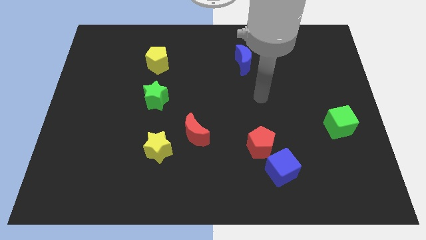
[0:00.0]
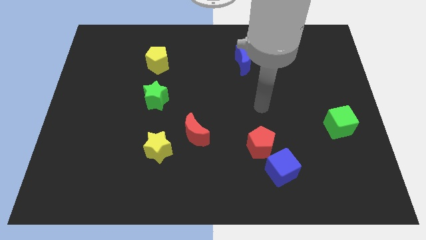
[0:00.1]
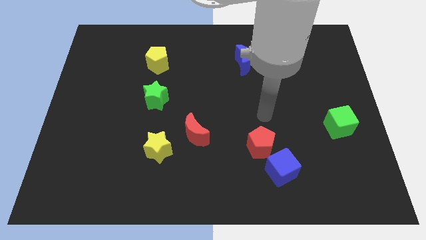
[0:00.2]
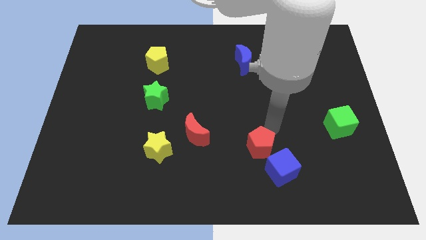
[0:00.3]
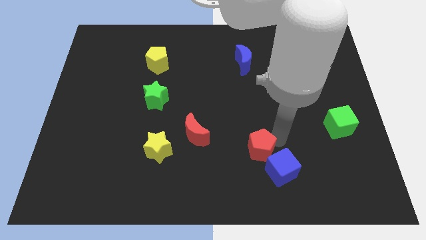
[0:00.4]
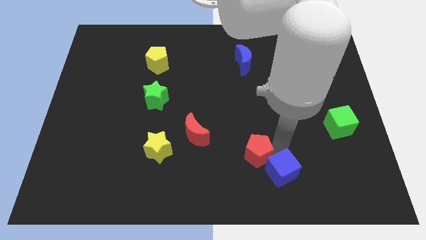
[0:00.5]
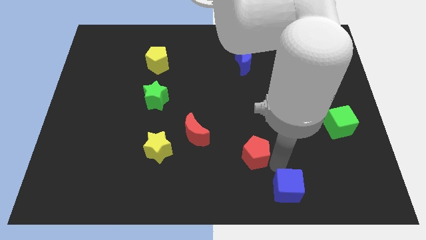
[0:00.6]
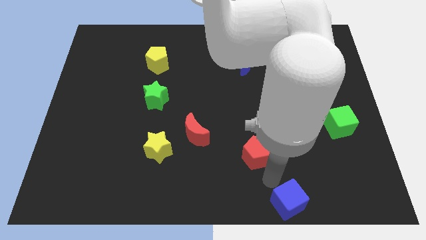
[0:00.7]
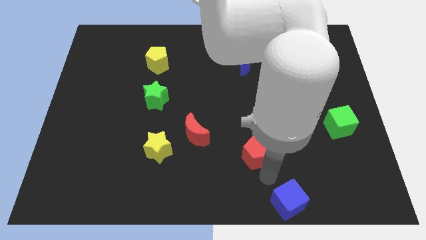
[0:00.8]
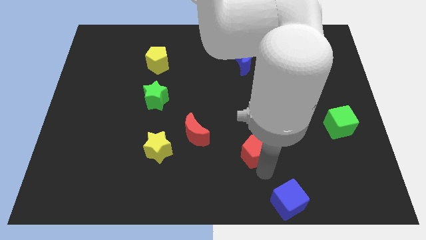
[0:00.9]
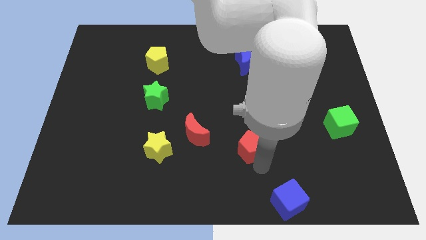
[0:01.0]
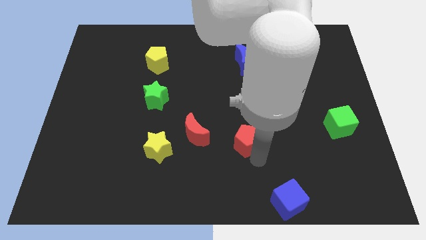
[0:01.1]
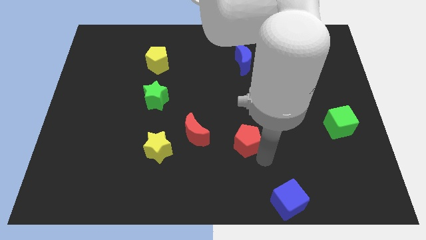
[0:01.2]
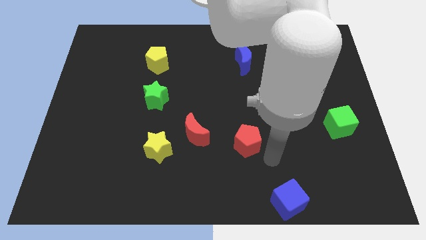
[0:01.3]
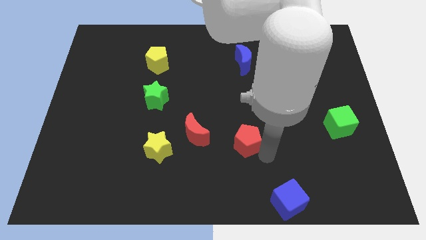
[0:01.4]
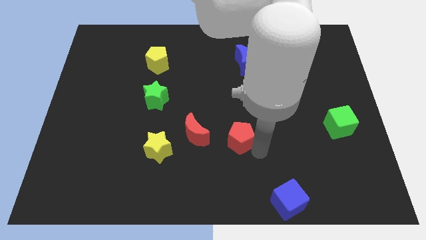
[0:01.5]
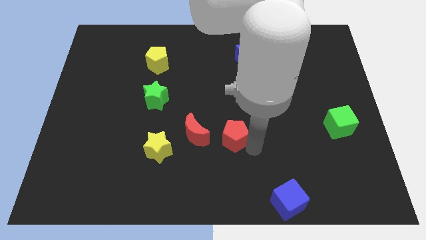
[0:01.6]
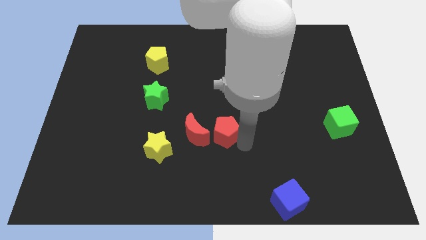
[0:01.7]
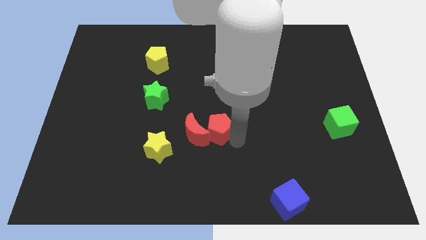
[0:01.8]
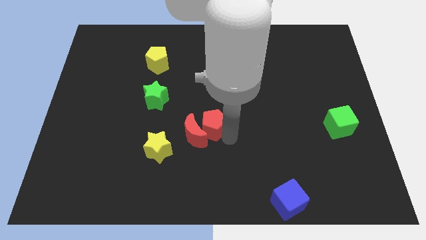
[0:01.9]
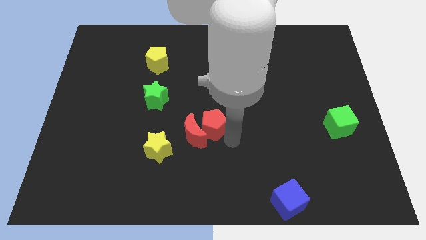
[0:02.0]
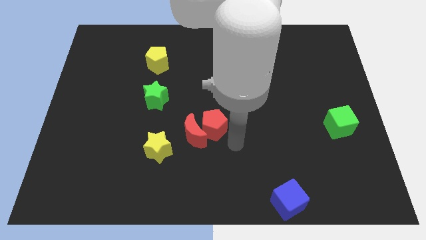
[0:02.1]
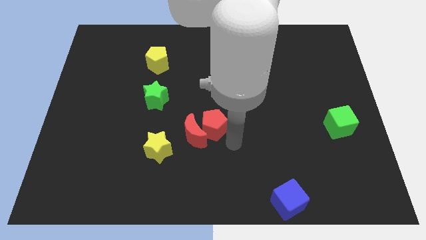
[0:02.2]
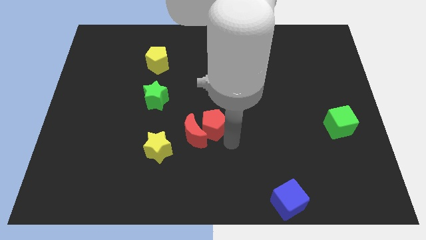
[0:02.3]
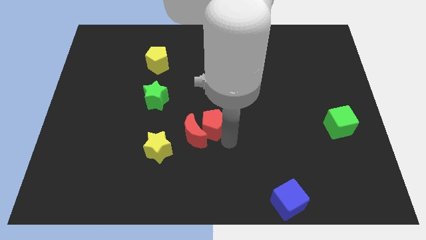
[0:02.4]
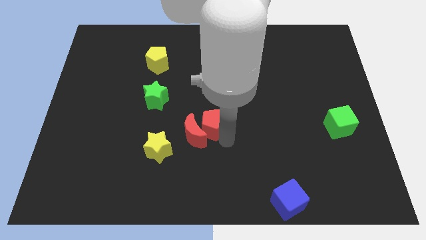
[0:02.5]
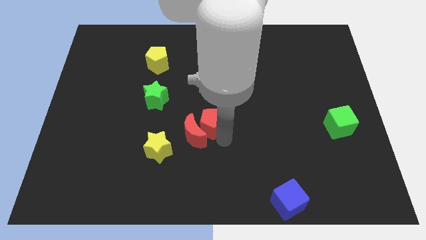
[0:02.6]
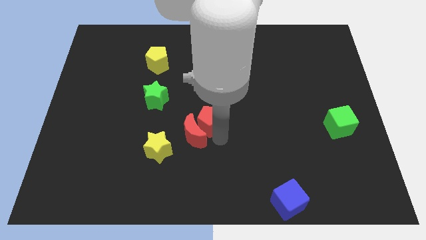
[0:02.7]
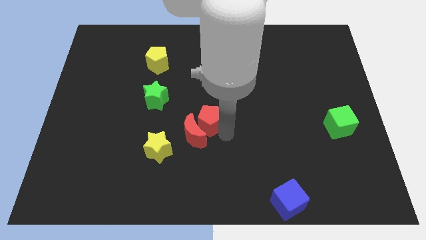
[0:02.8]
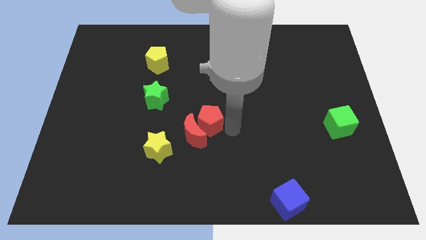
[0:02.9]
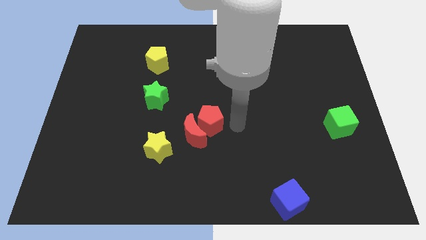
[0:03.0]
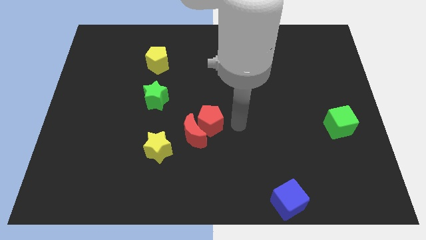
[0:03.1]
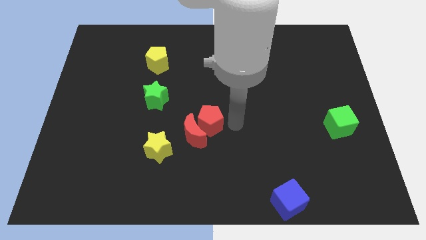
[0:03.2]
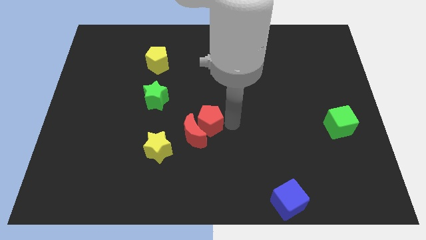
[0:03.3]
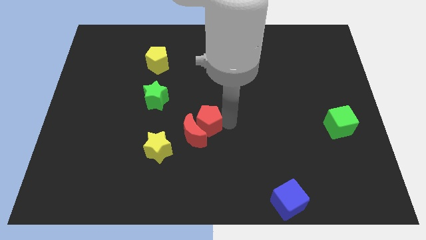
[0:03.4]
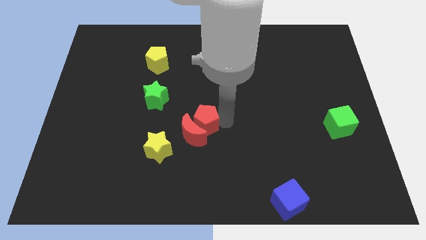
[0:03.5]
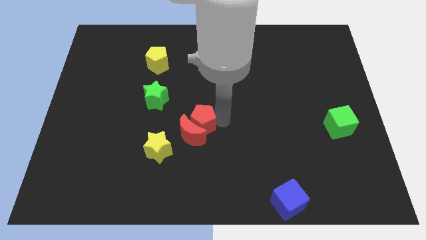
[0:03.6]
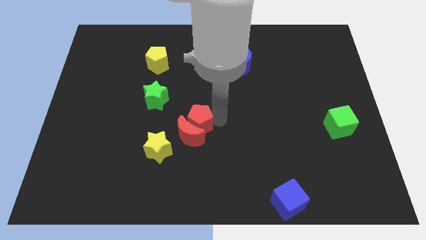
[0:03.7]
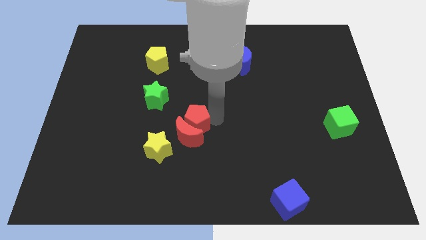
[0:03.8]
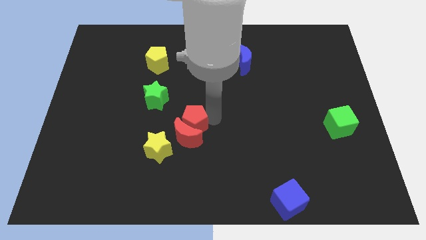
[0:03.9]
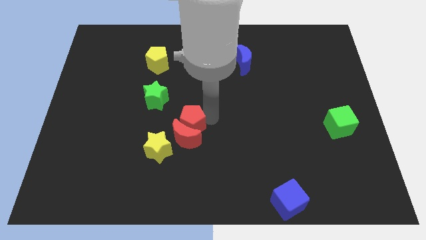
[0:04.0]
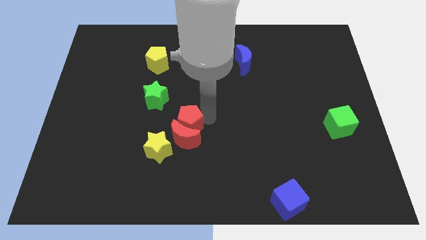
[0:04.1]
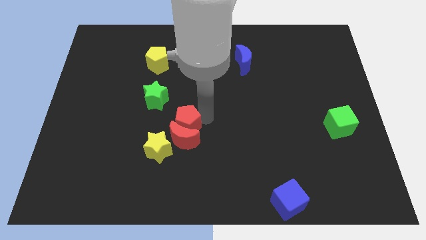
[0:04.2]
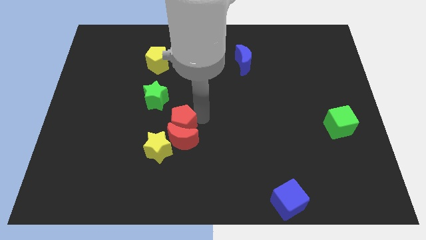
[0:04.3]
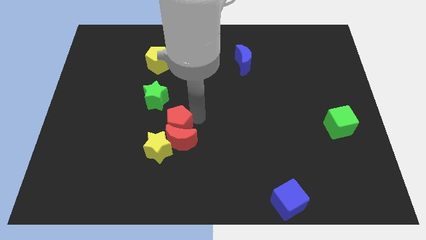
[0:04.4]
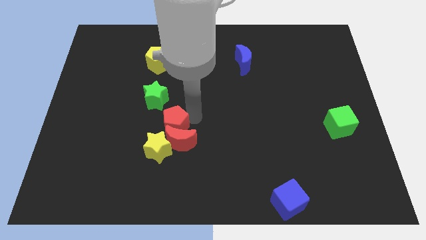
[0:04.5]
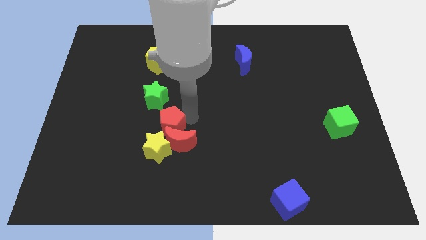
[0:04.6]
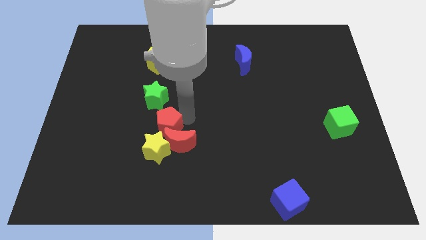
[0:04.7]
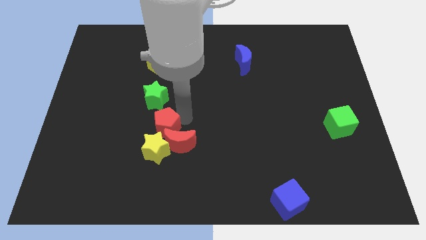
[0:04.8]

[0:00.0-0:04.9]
push the red pentagon left

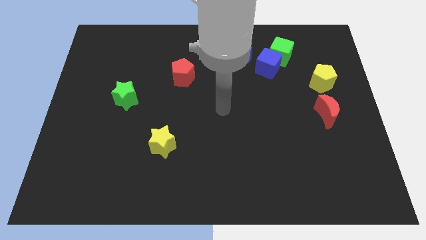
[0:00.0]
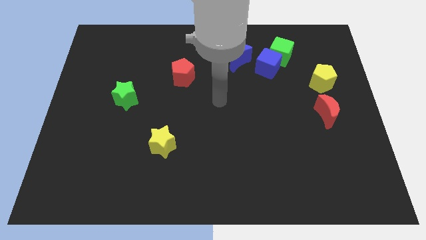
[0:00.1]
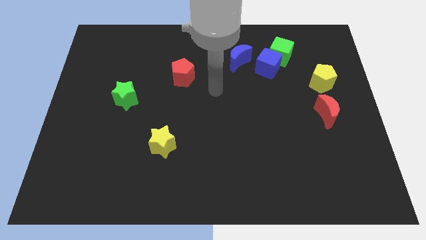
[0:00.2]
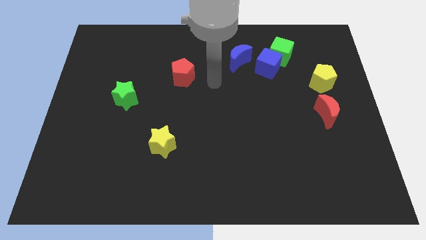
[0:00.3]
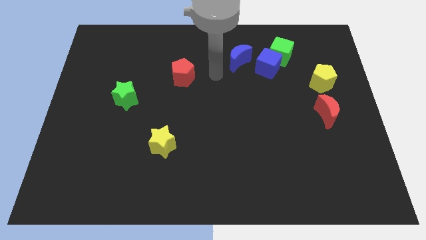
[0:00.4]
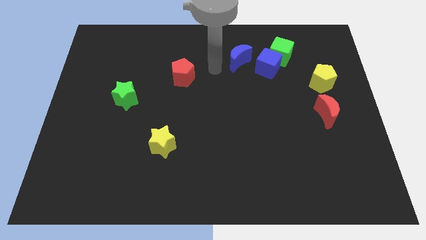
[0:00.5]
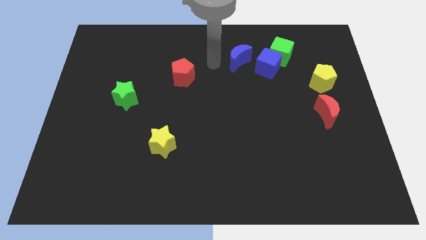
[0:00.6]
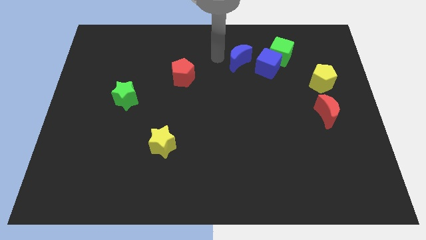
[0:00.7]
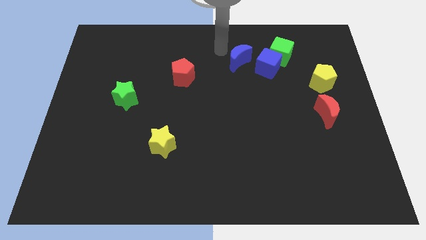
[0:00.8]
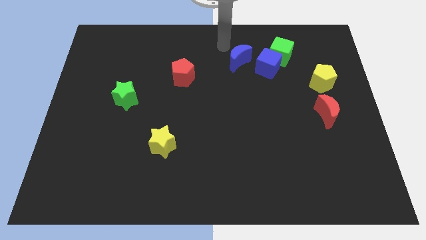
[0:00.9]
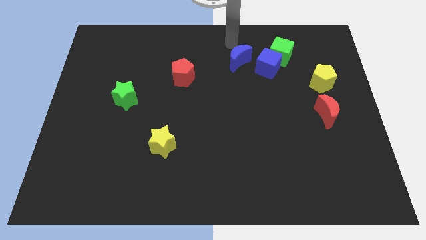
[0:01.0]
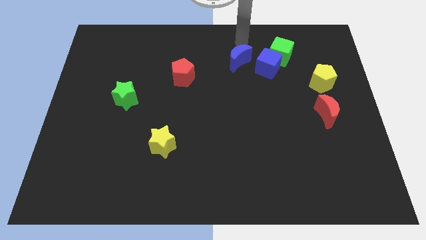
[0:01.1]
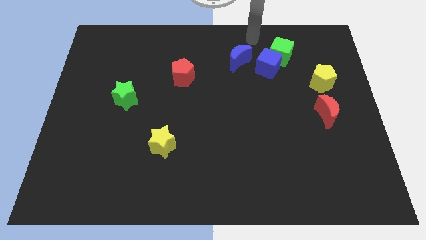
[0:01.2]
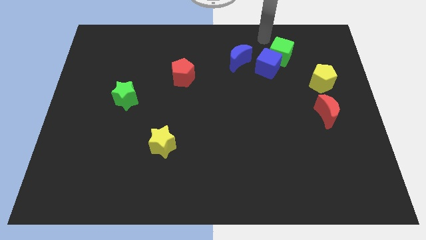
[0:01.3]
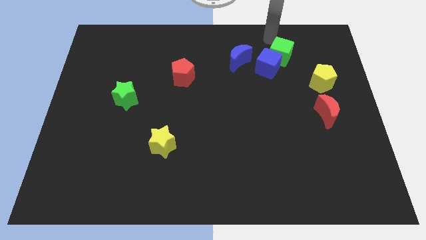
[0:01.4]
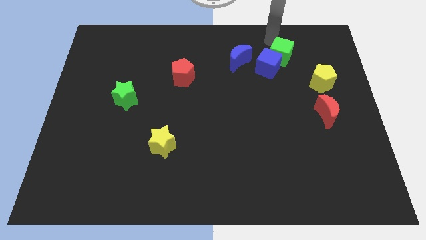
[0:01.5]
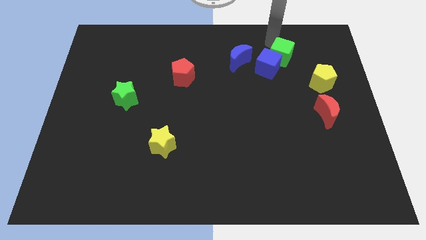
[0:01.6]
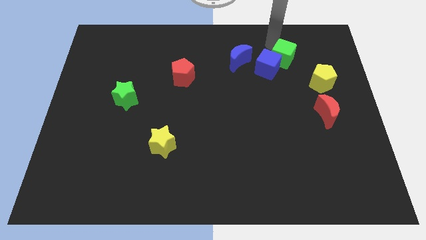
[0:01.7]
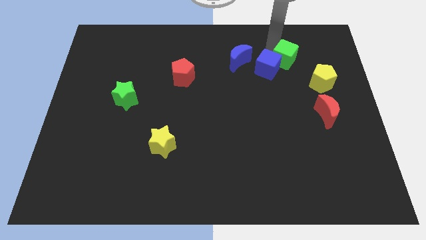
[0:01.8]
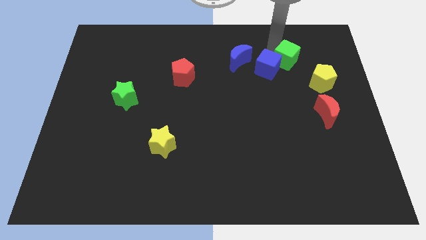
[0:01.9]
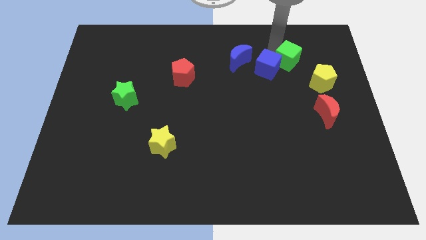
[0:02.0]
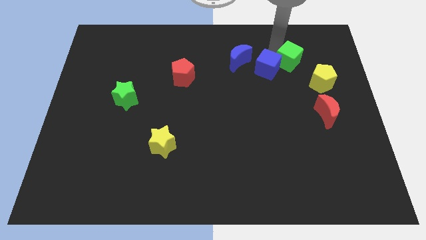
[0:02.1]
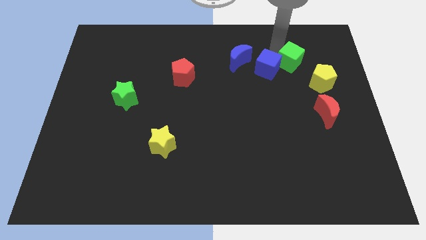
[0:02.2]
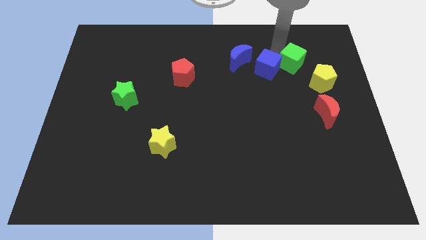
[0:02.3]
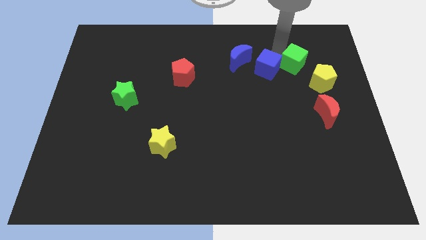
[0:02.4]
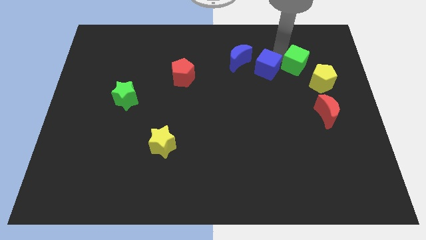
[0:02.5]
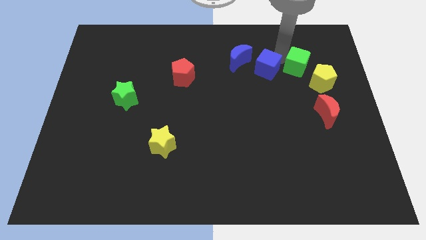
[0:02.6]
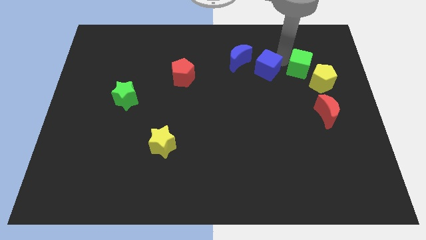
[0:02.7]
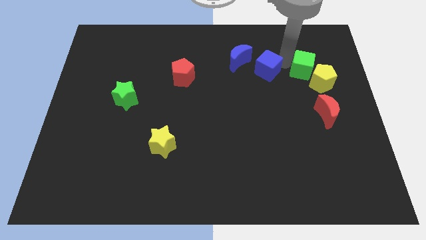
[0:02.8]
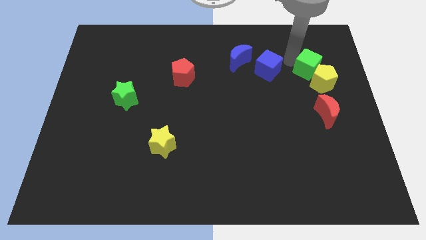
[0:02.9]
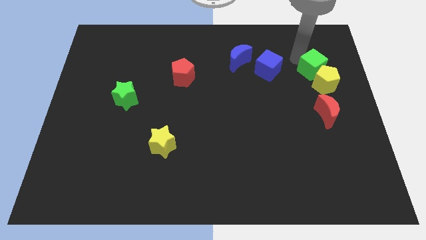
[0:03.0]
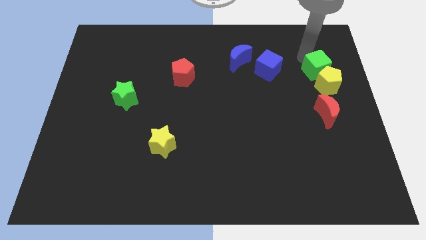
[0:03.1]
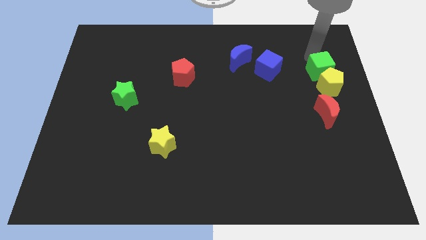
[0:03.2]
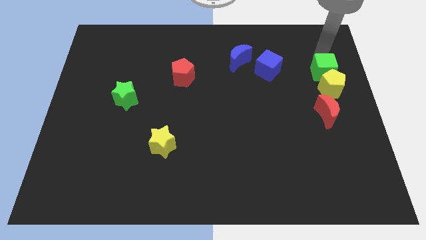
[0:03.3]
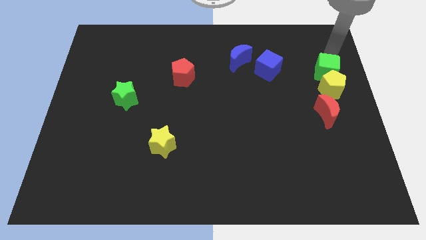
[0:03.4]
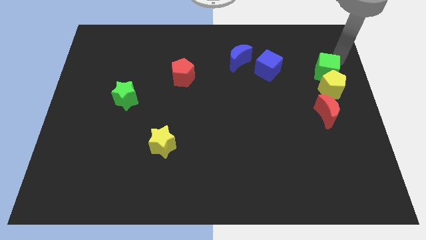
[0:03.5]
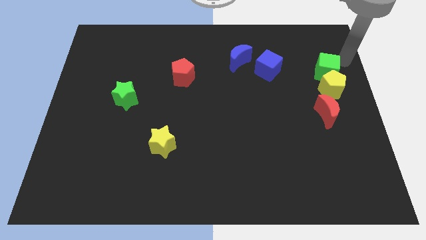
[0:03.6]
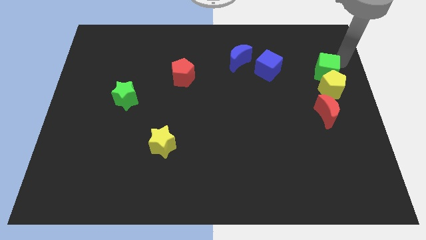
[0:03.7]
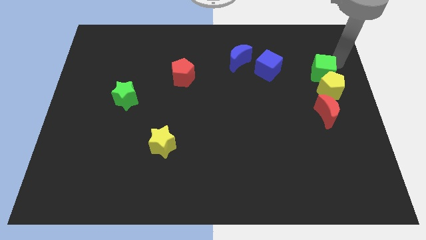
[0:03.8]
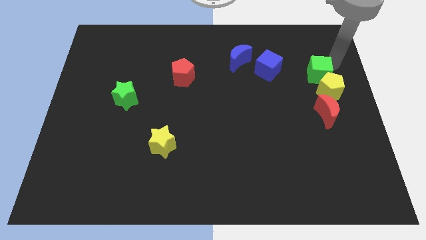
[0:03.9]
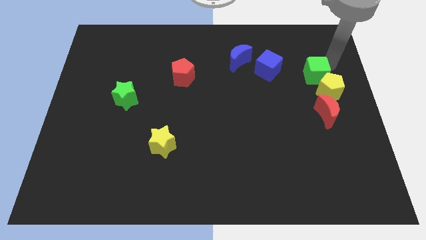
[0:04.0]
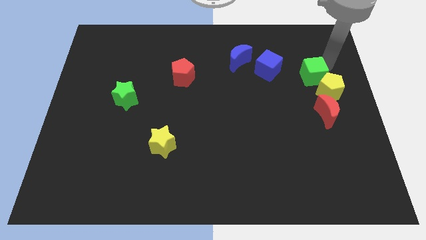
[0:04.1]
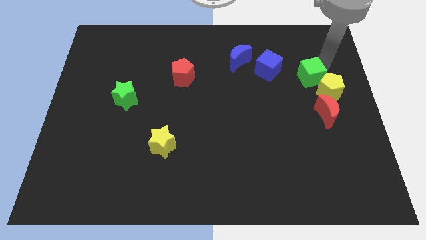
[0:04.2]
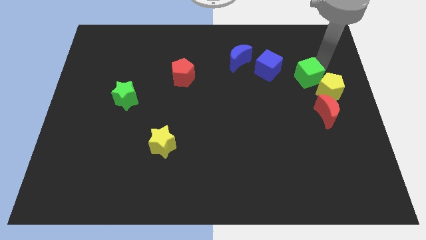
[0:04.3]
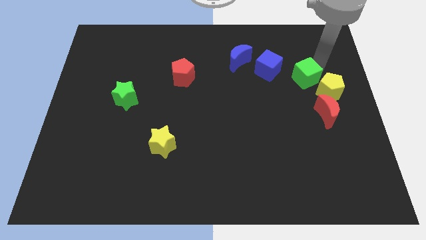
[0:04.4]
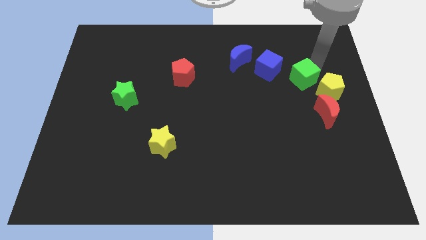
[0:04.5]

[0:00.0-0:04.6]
slightly slide the green cube downwards
